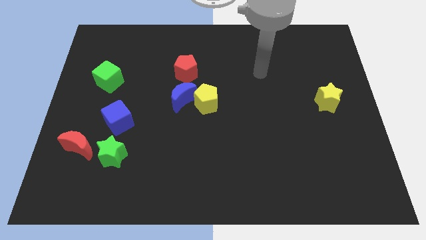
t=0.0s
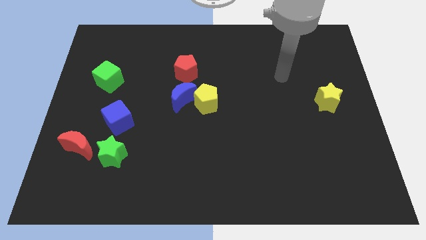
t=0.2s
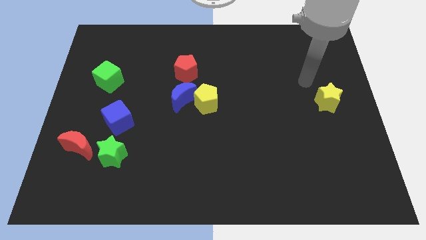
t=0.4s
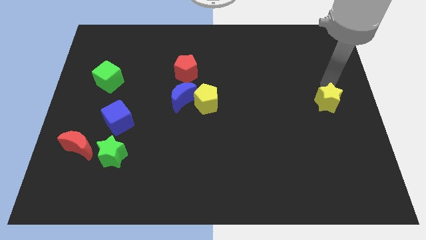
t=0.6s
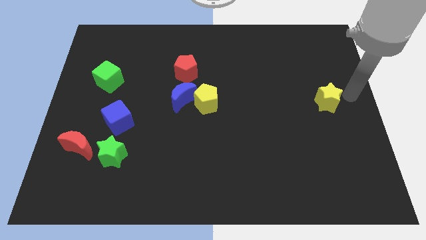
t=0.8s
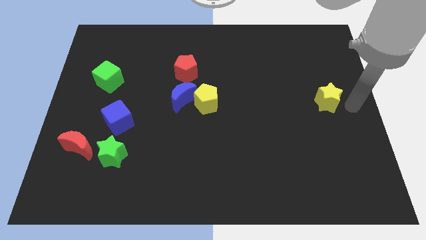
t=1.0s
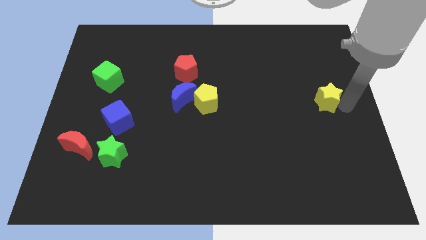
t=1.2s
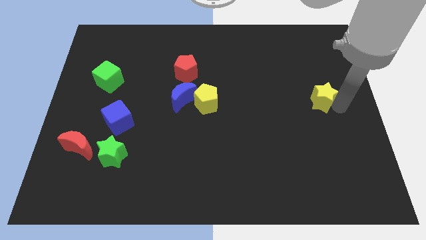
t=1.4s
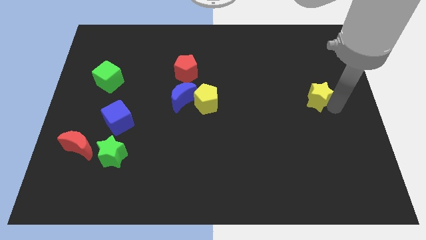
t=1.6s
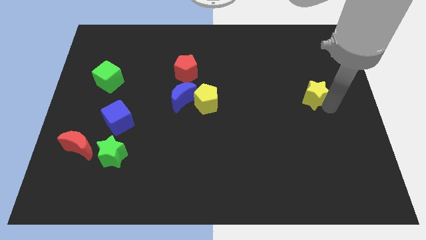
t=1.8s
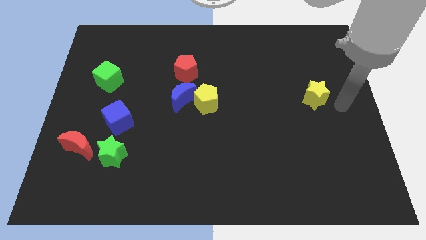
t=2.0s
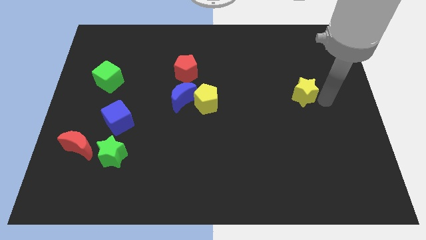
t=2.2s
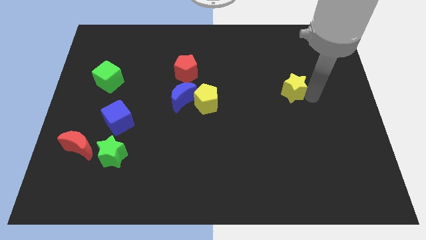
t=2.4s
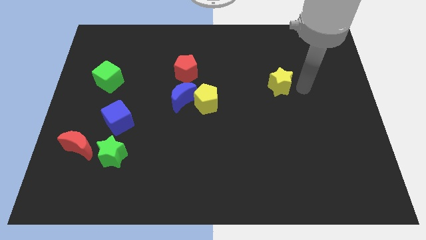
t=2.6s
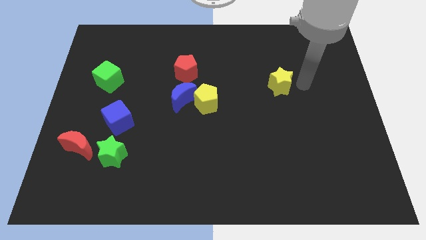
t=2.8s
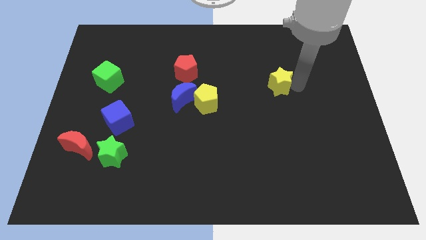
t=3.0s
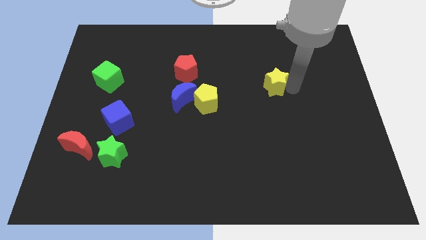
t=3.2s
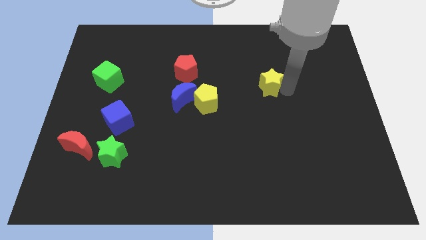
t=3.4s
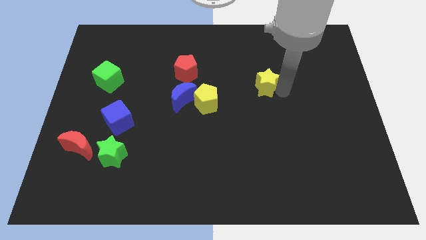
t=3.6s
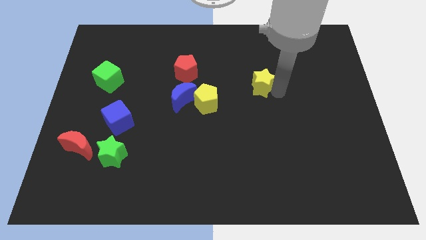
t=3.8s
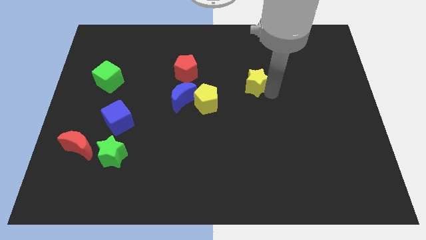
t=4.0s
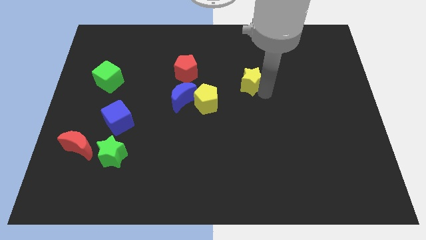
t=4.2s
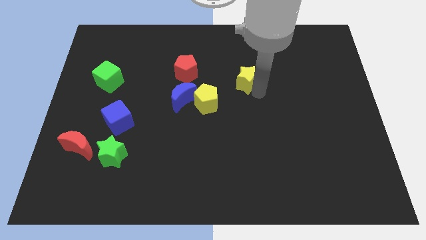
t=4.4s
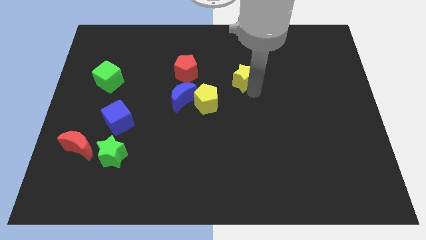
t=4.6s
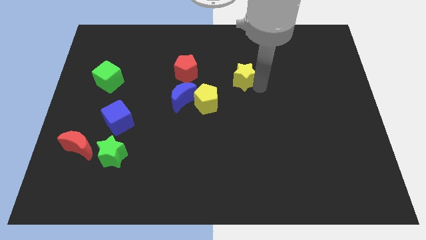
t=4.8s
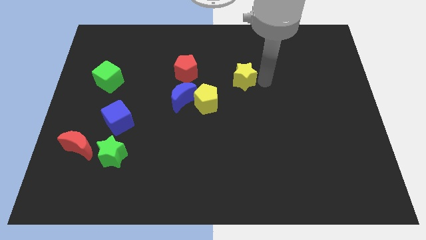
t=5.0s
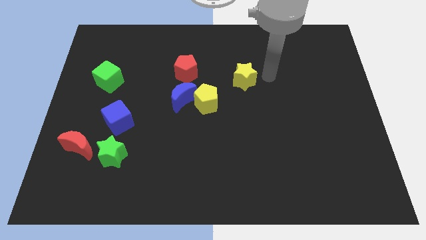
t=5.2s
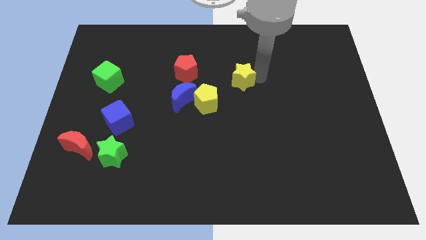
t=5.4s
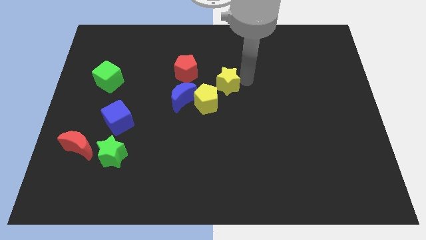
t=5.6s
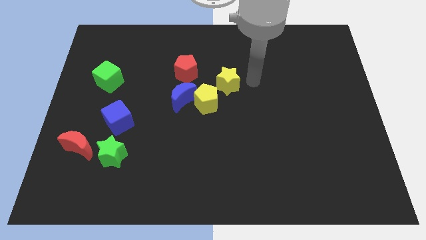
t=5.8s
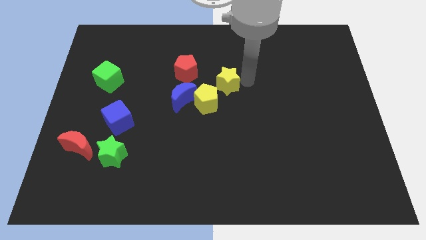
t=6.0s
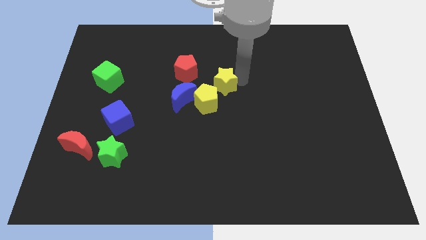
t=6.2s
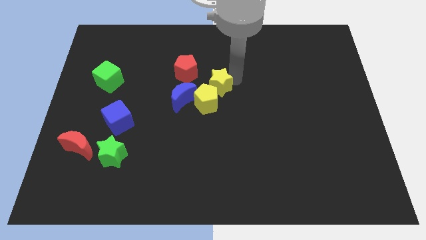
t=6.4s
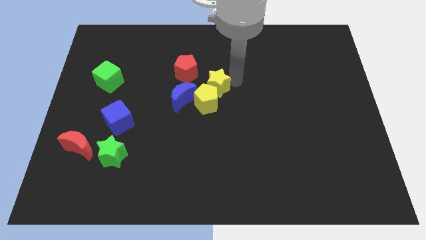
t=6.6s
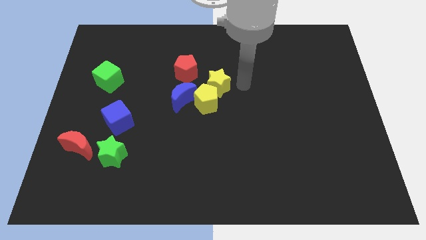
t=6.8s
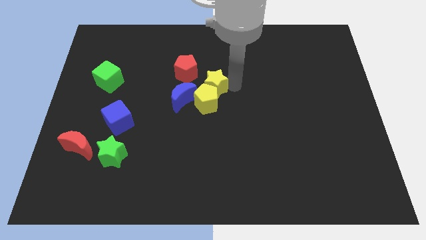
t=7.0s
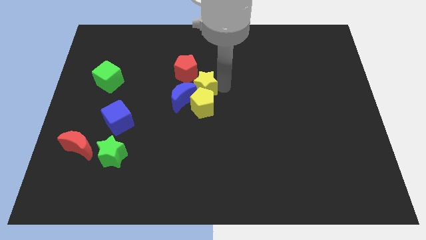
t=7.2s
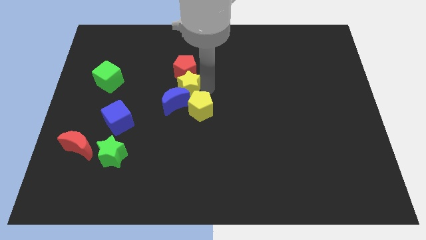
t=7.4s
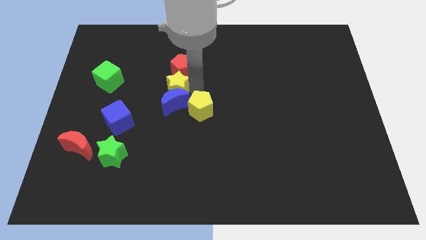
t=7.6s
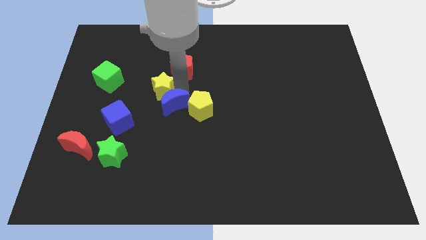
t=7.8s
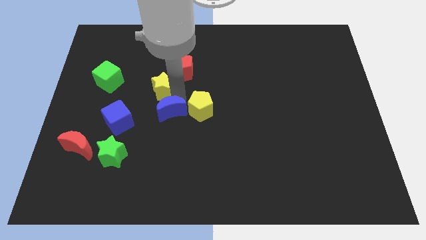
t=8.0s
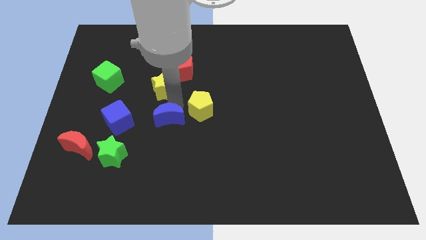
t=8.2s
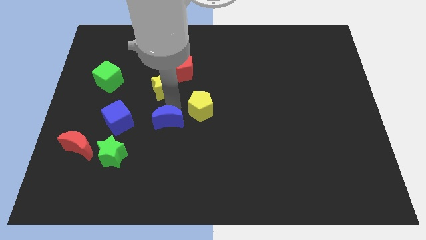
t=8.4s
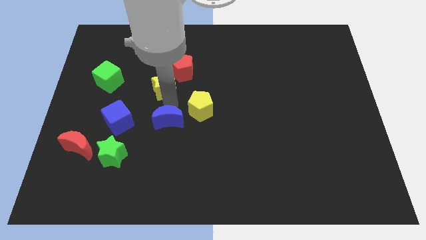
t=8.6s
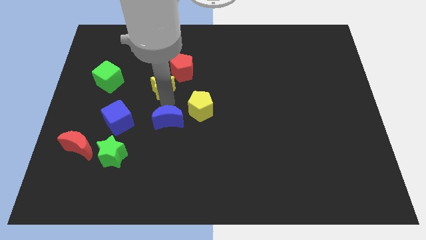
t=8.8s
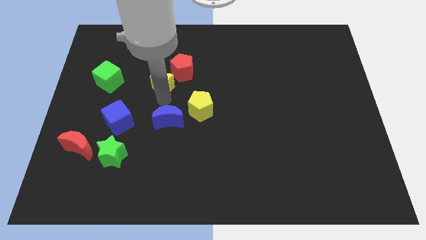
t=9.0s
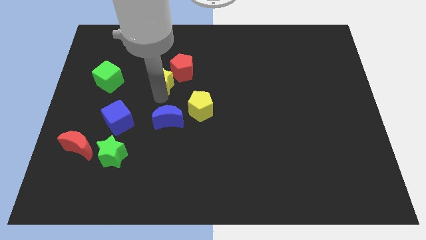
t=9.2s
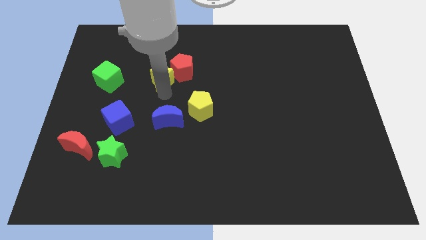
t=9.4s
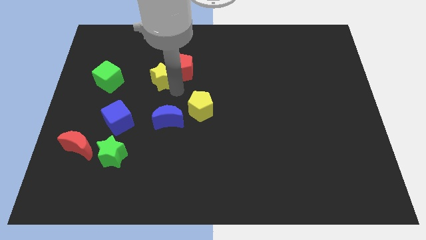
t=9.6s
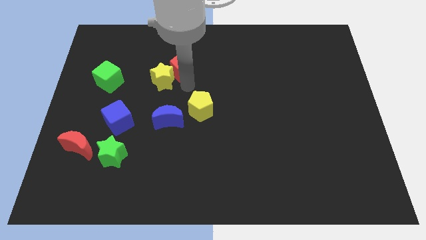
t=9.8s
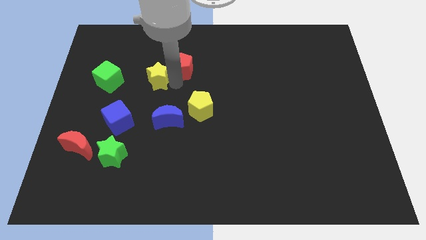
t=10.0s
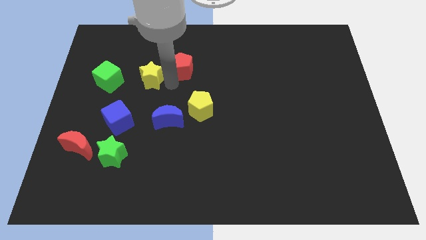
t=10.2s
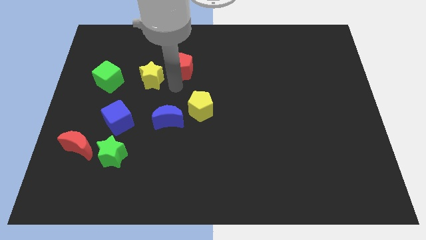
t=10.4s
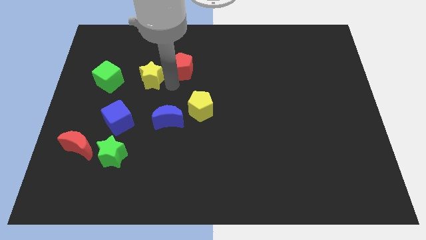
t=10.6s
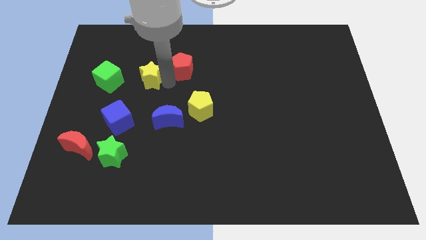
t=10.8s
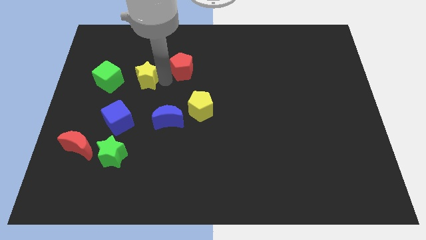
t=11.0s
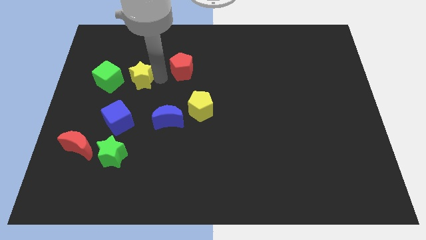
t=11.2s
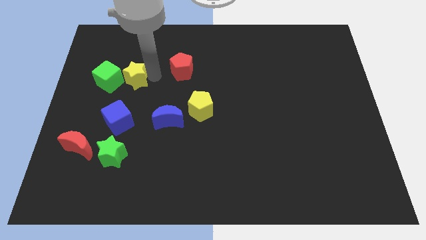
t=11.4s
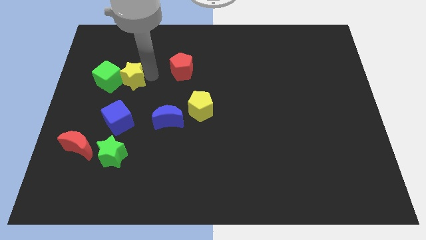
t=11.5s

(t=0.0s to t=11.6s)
put the yellow star towards the green cube

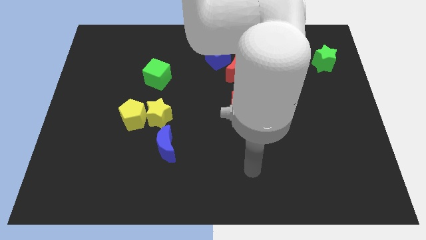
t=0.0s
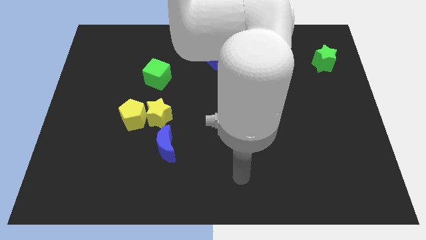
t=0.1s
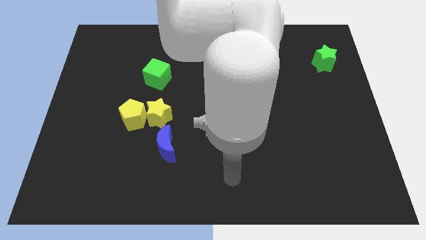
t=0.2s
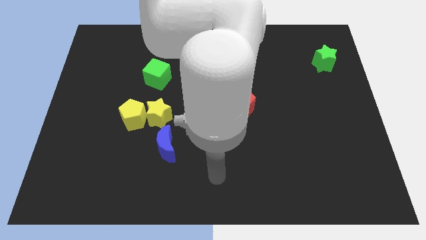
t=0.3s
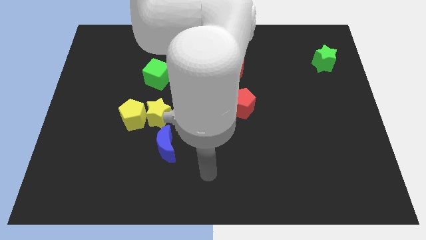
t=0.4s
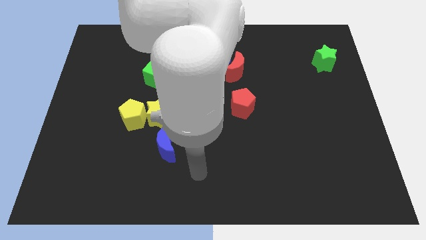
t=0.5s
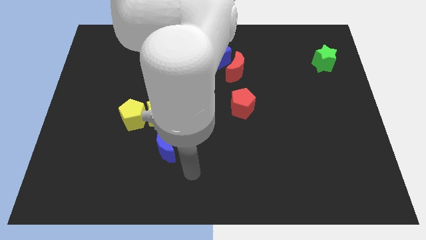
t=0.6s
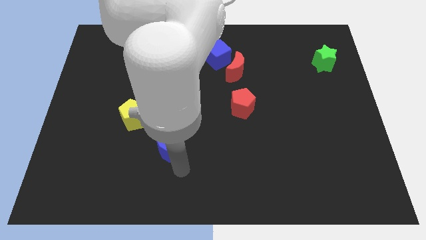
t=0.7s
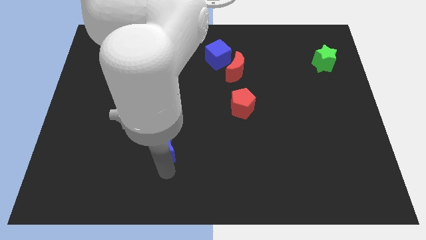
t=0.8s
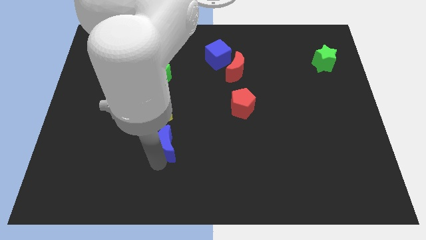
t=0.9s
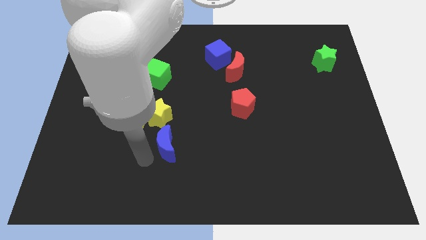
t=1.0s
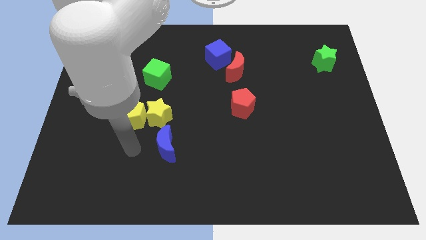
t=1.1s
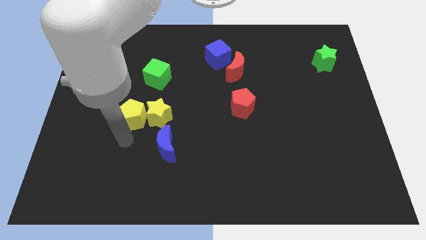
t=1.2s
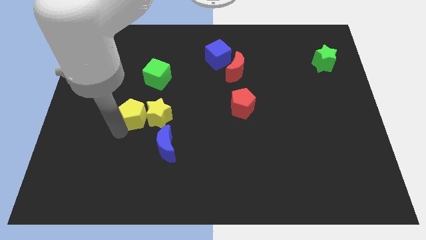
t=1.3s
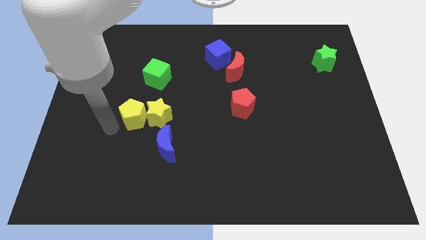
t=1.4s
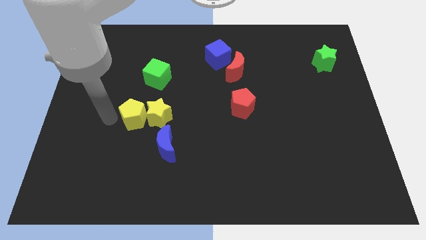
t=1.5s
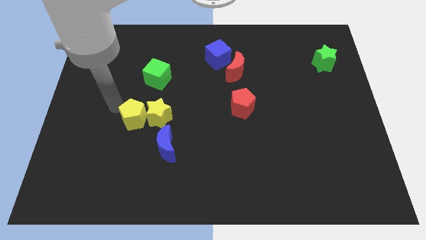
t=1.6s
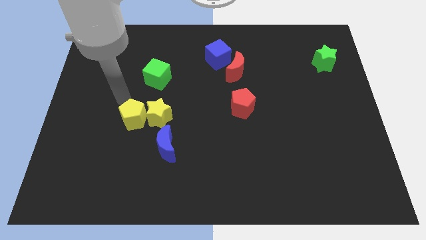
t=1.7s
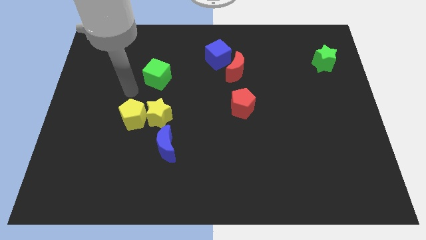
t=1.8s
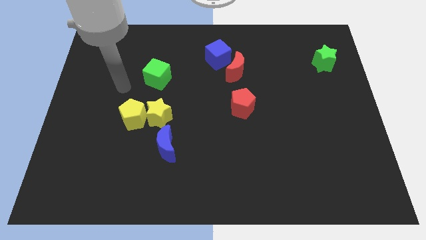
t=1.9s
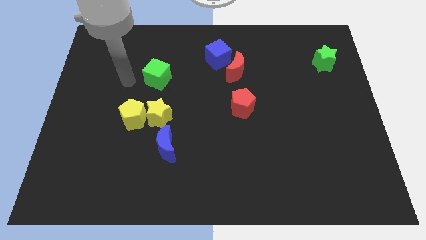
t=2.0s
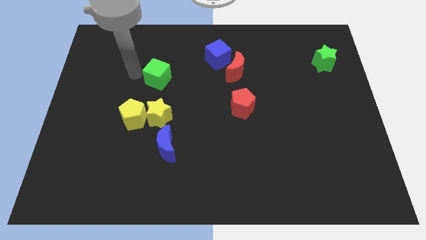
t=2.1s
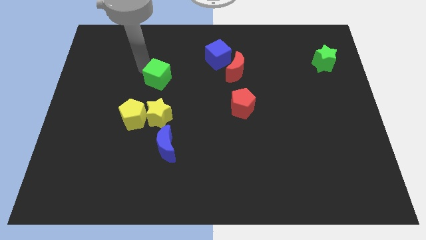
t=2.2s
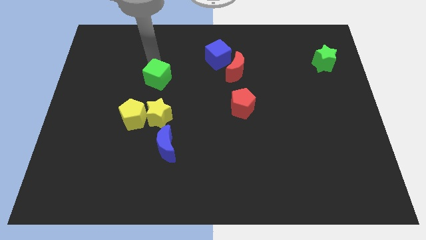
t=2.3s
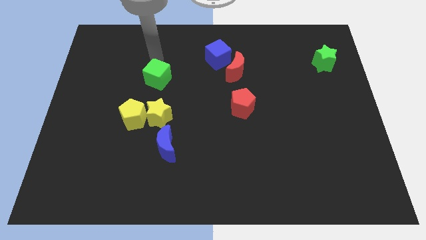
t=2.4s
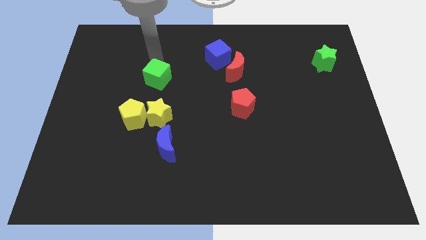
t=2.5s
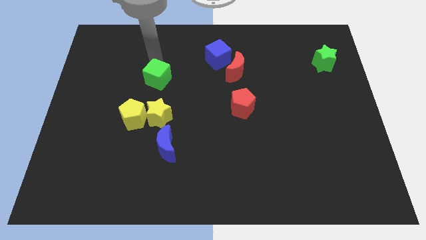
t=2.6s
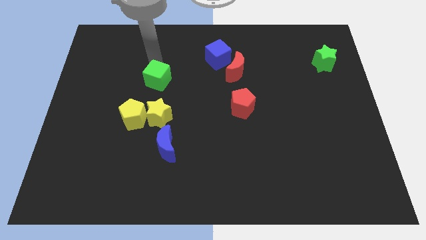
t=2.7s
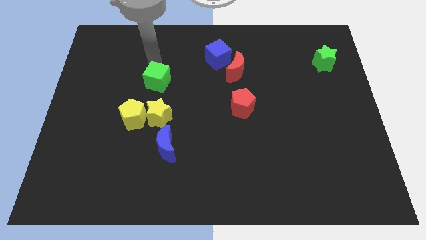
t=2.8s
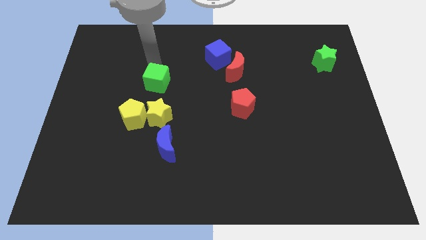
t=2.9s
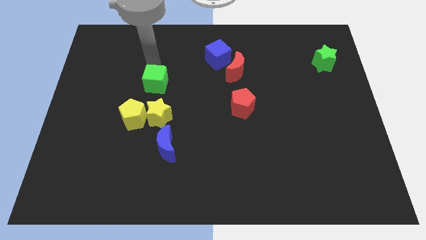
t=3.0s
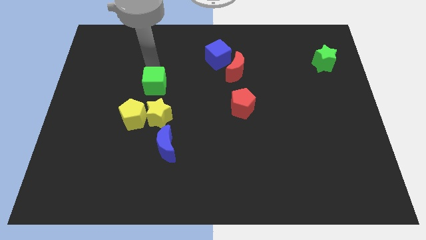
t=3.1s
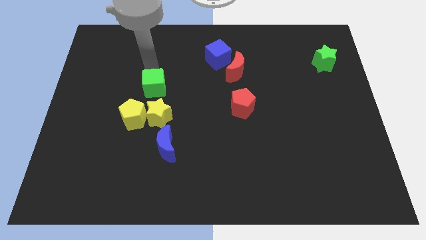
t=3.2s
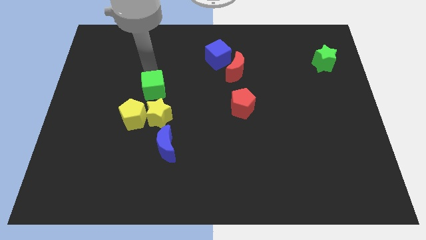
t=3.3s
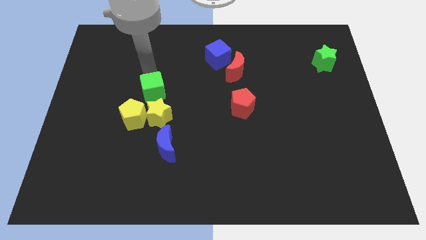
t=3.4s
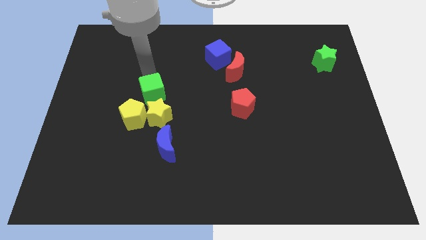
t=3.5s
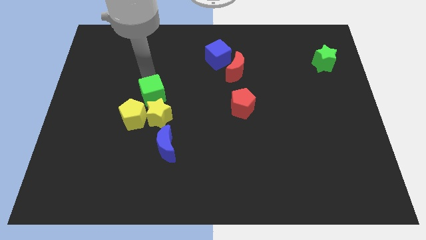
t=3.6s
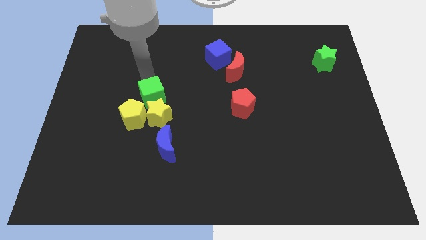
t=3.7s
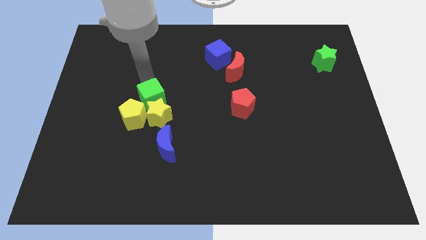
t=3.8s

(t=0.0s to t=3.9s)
push the green cube close to the yellow star
